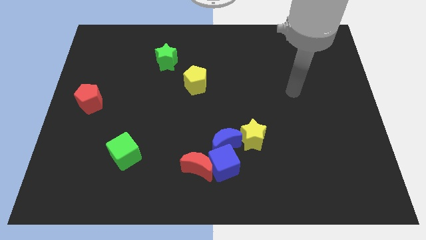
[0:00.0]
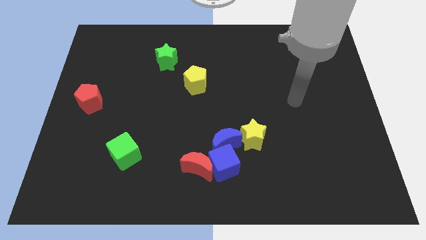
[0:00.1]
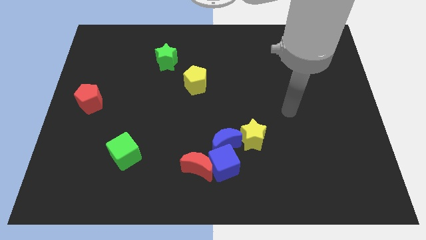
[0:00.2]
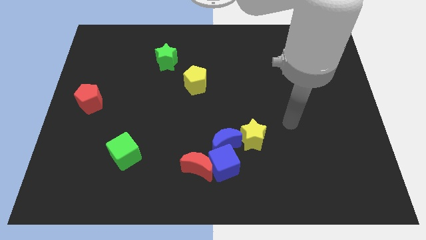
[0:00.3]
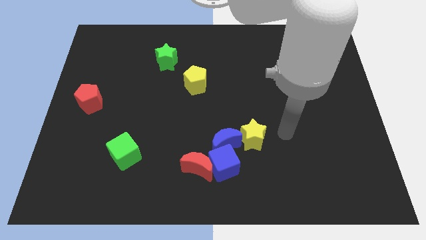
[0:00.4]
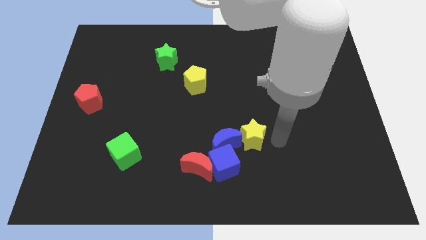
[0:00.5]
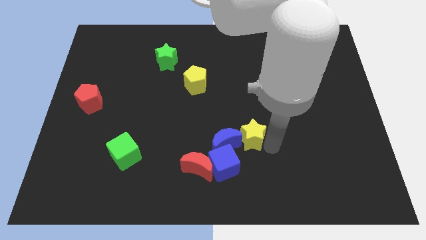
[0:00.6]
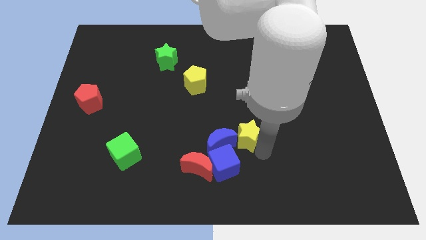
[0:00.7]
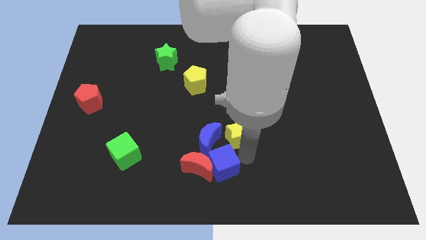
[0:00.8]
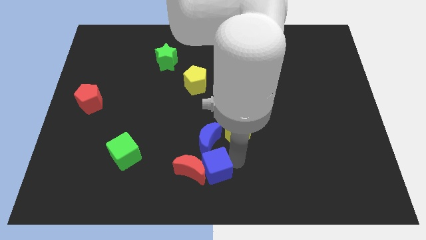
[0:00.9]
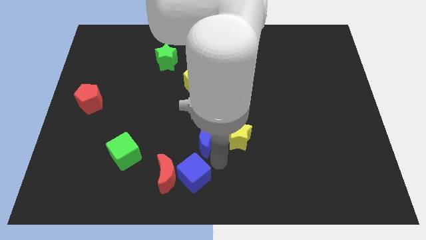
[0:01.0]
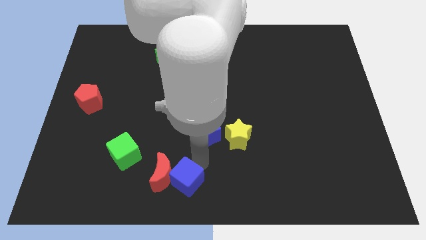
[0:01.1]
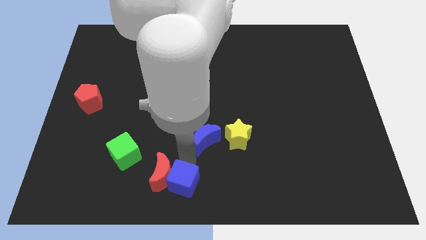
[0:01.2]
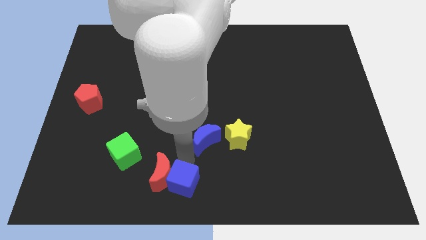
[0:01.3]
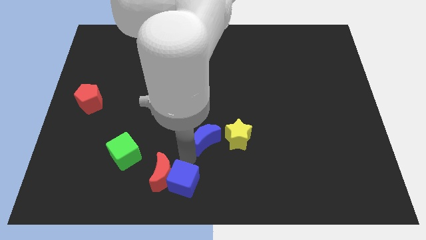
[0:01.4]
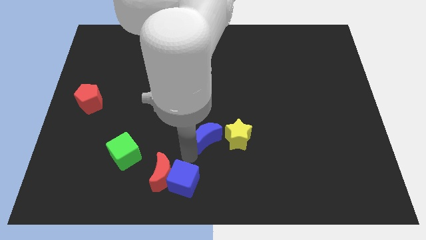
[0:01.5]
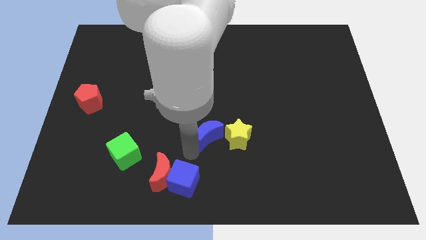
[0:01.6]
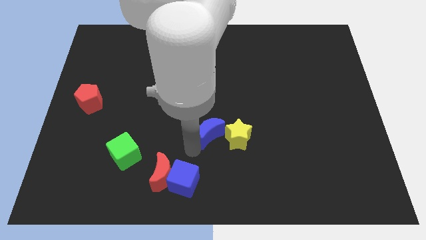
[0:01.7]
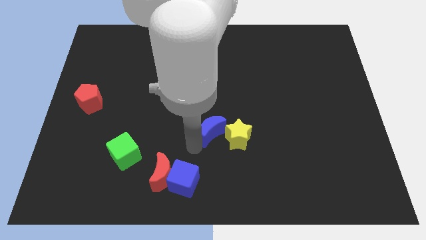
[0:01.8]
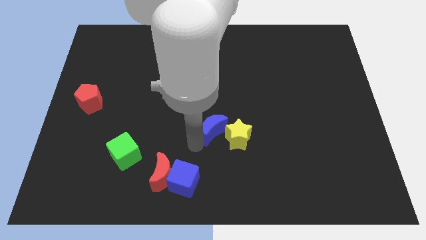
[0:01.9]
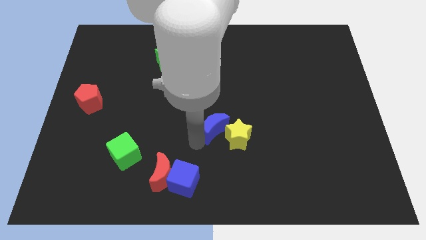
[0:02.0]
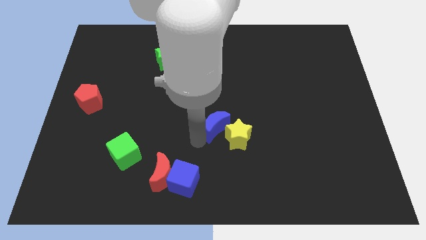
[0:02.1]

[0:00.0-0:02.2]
separate the blue moon from the blue cube, yellow star, and red moon

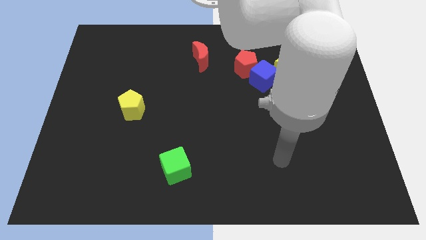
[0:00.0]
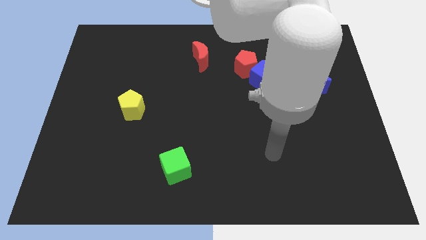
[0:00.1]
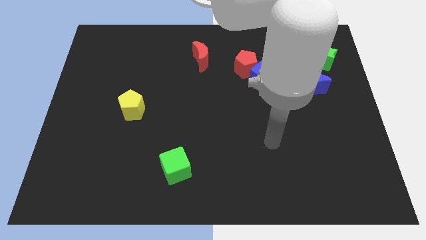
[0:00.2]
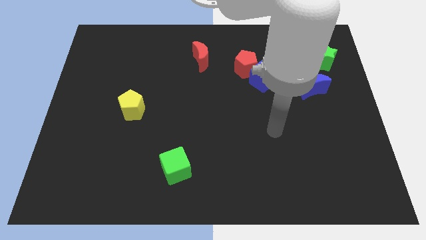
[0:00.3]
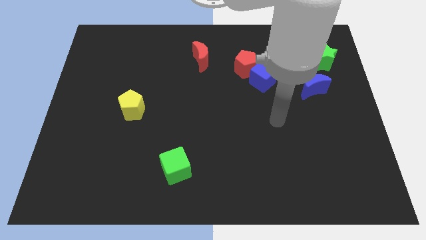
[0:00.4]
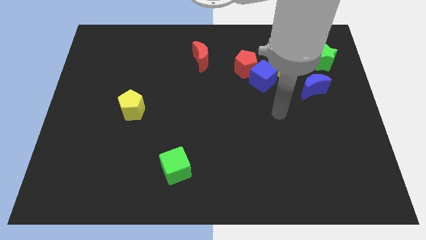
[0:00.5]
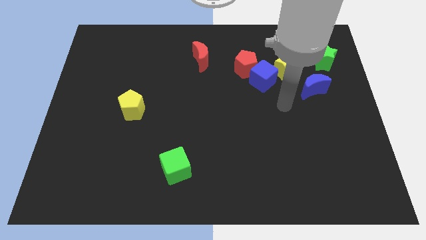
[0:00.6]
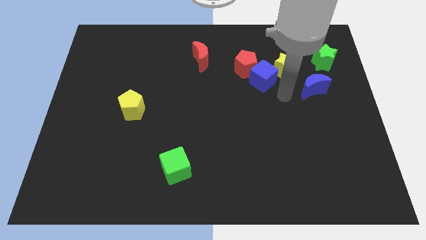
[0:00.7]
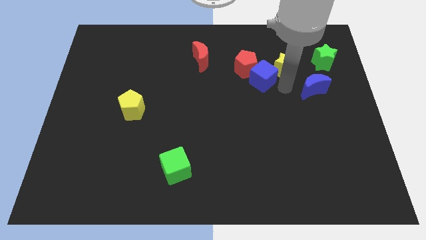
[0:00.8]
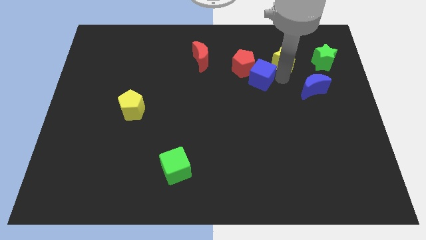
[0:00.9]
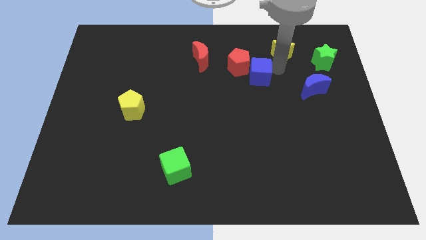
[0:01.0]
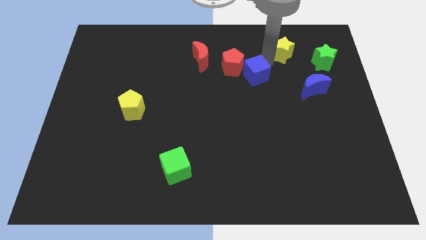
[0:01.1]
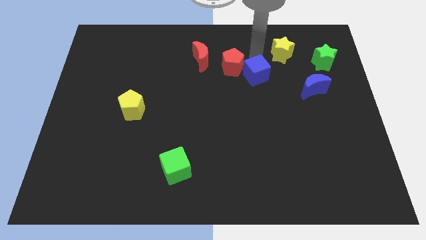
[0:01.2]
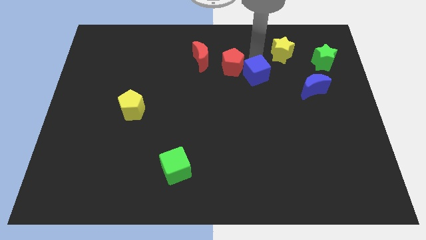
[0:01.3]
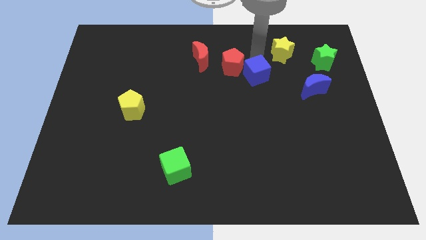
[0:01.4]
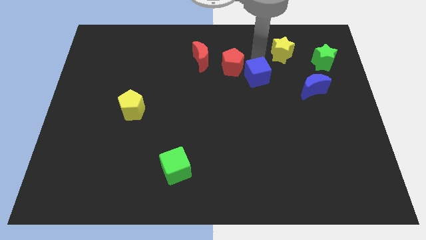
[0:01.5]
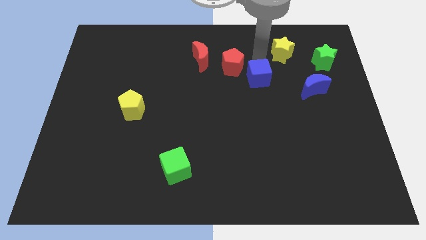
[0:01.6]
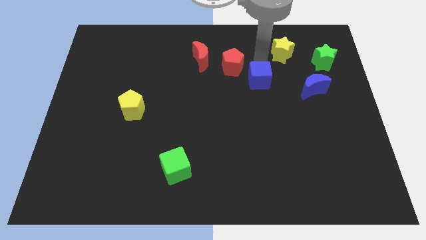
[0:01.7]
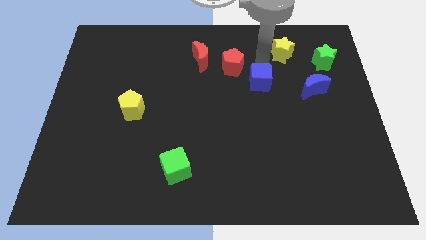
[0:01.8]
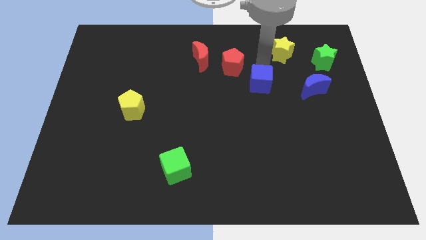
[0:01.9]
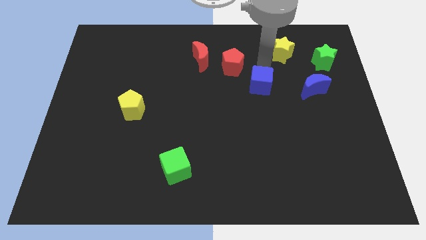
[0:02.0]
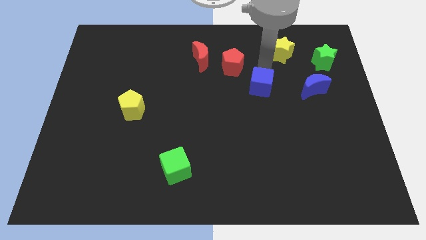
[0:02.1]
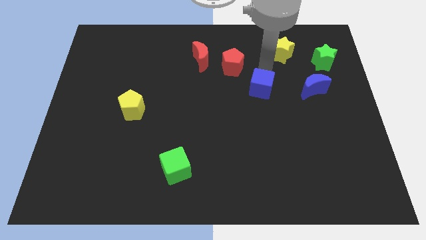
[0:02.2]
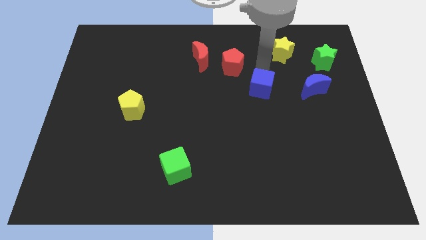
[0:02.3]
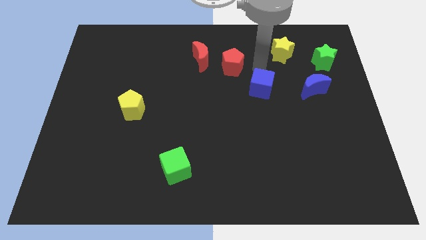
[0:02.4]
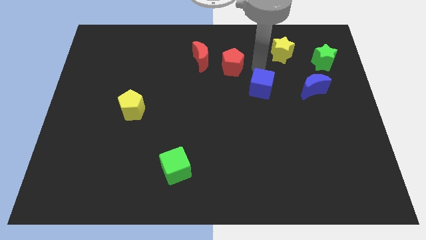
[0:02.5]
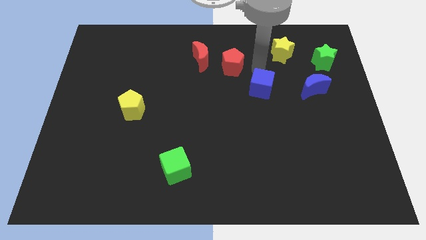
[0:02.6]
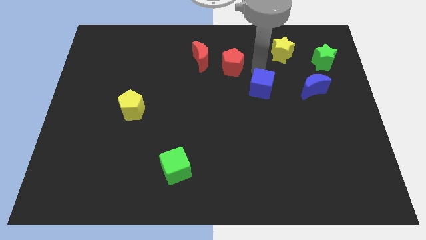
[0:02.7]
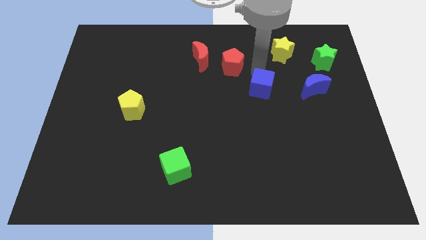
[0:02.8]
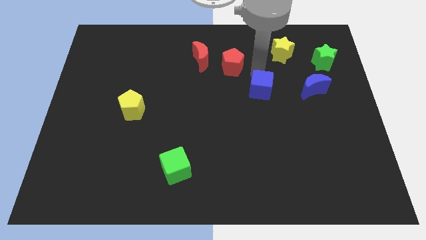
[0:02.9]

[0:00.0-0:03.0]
separate the blue cube from the red pentagon and yellow star

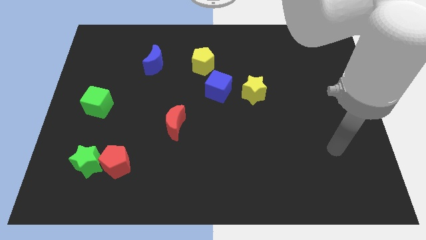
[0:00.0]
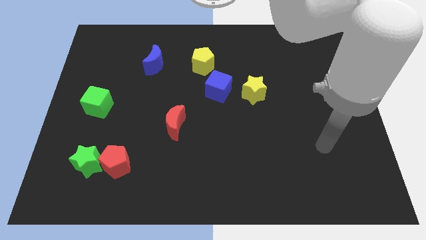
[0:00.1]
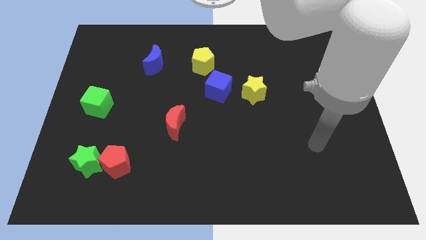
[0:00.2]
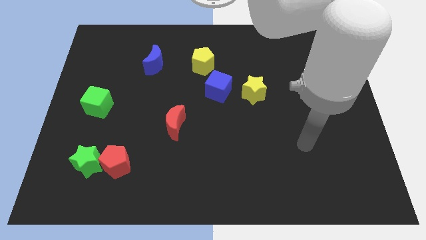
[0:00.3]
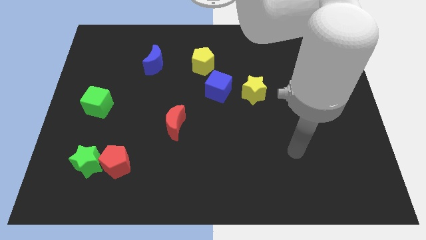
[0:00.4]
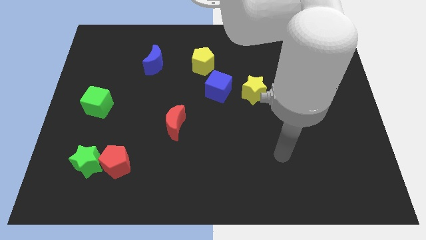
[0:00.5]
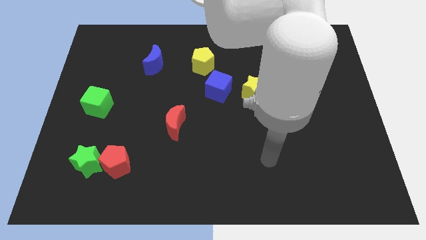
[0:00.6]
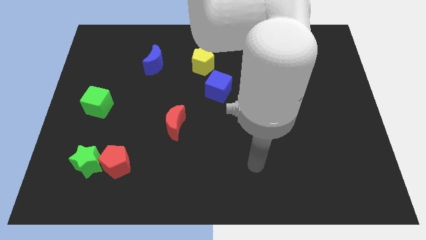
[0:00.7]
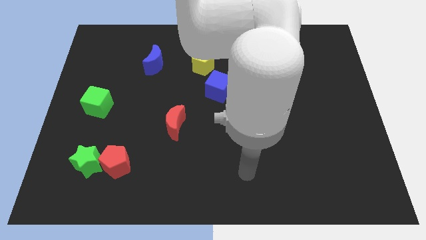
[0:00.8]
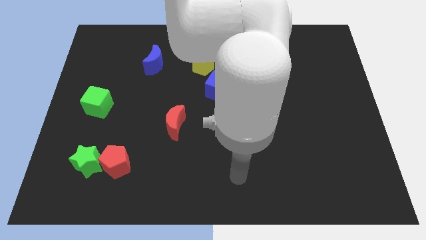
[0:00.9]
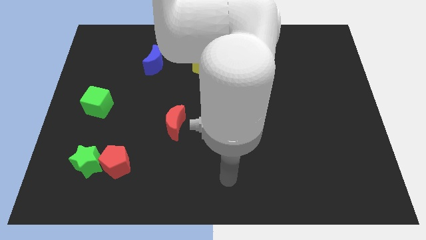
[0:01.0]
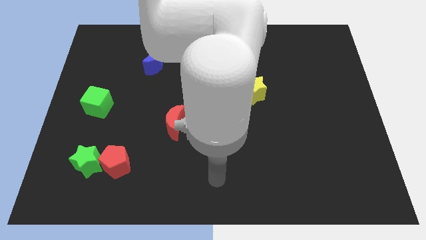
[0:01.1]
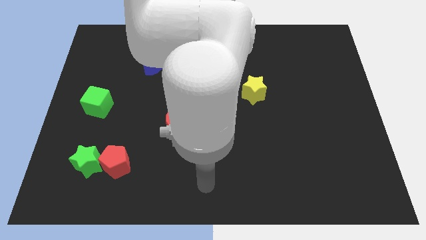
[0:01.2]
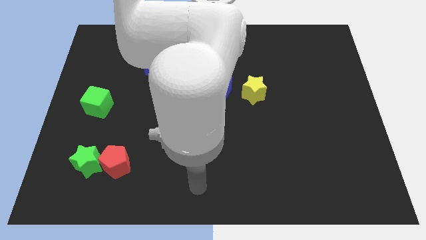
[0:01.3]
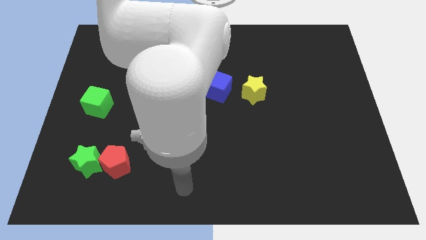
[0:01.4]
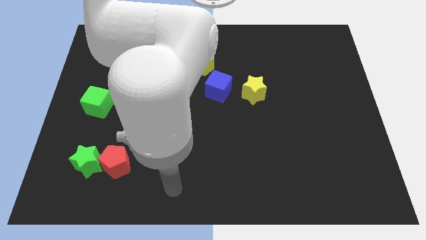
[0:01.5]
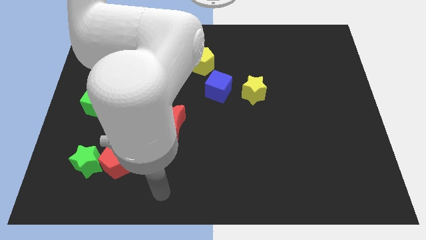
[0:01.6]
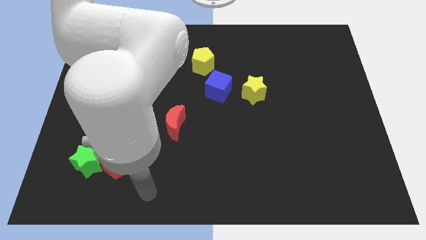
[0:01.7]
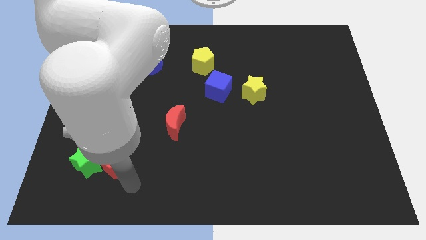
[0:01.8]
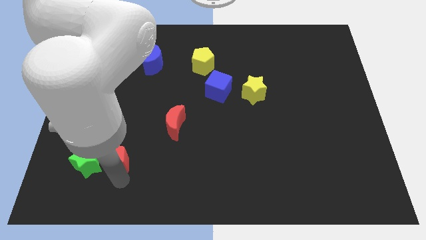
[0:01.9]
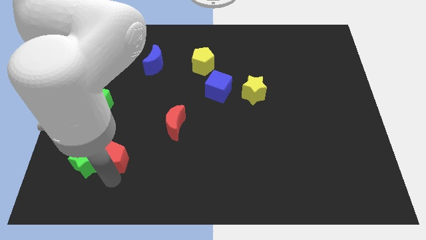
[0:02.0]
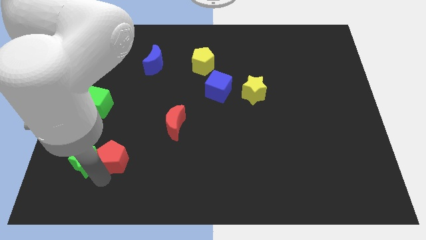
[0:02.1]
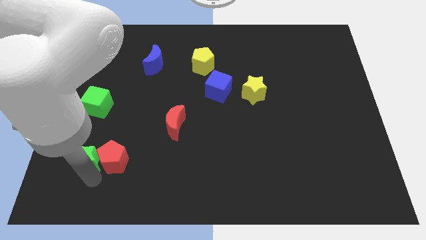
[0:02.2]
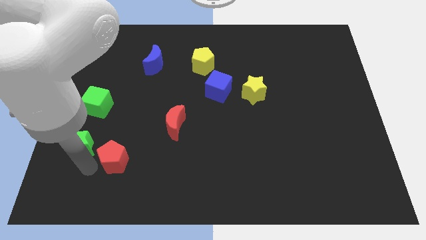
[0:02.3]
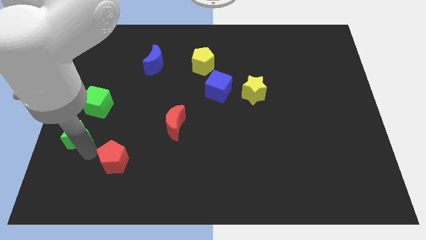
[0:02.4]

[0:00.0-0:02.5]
pull the red pentagon apart from the green star

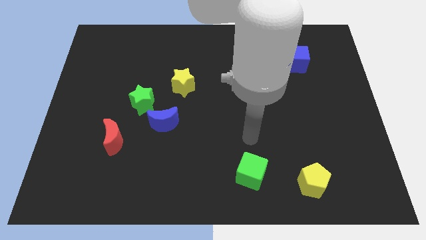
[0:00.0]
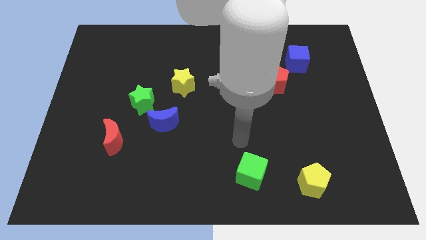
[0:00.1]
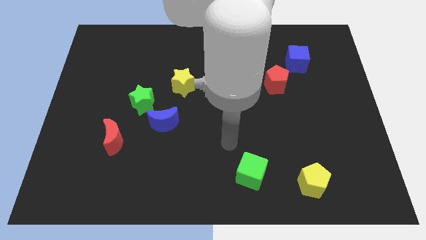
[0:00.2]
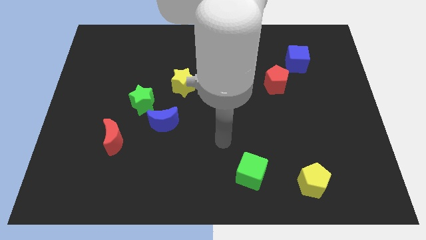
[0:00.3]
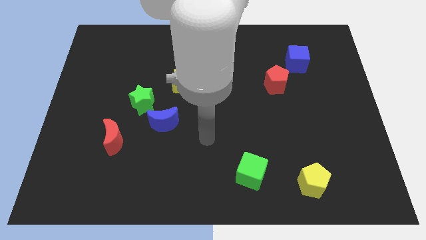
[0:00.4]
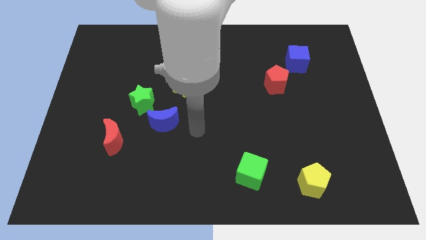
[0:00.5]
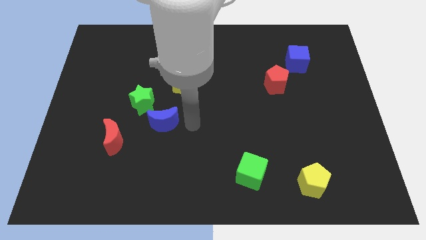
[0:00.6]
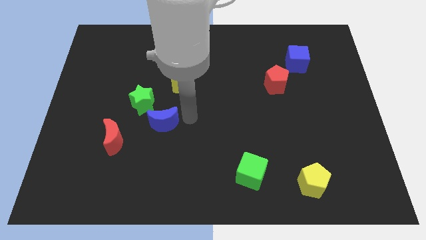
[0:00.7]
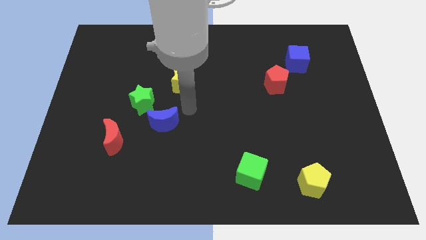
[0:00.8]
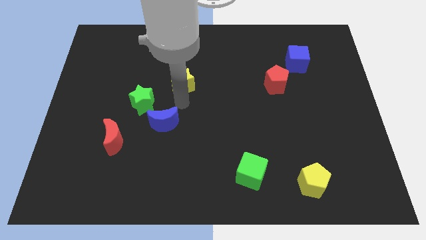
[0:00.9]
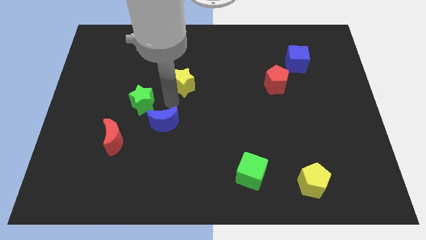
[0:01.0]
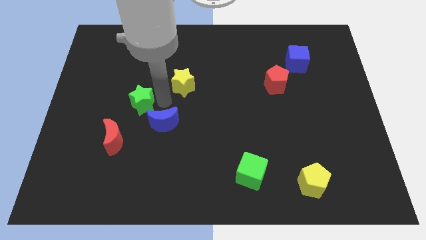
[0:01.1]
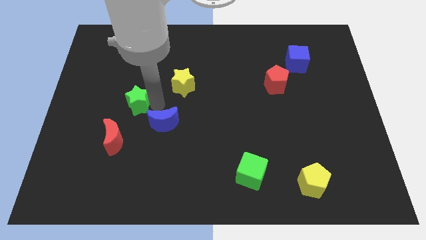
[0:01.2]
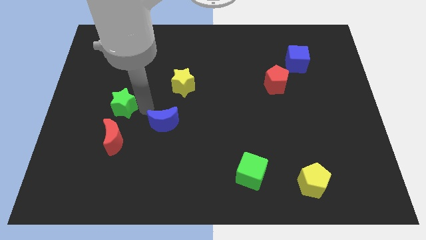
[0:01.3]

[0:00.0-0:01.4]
move the blue moon away from the green star

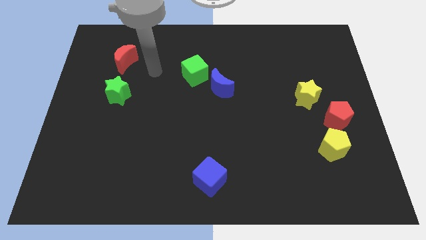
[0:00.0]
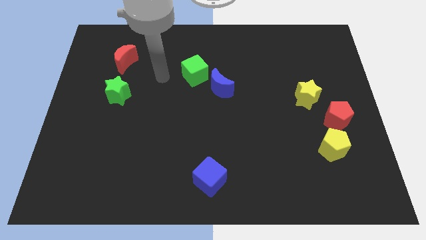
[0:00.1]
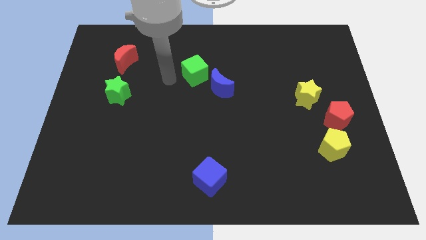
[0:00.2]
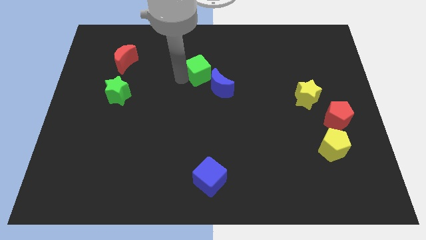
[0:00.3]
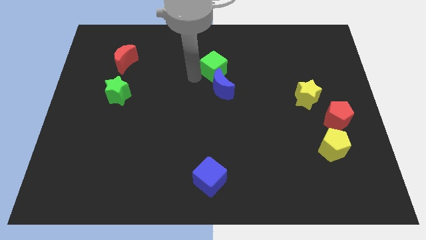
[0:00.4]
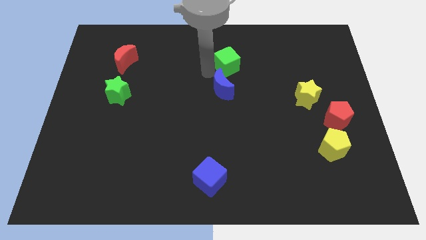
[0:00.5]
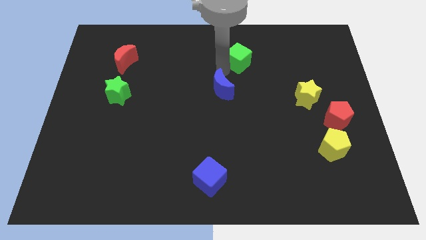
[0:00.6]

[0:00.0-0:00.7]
separate the blue moon from the green cube
